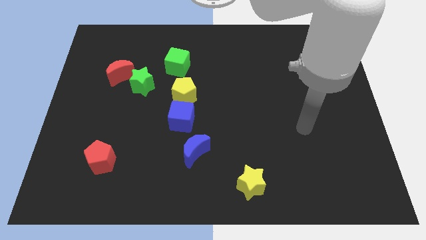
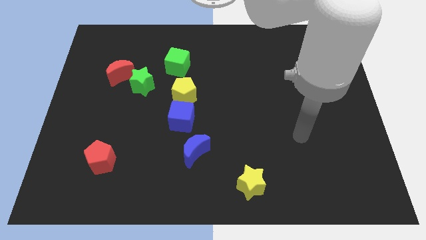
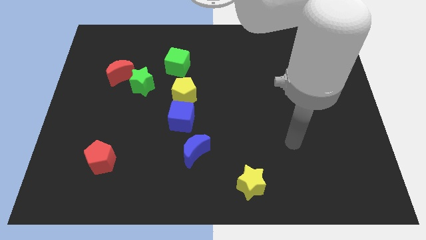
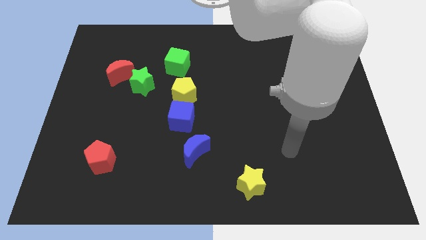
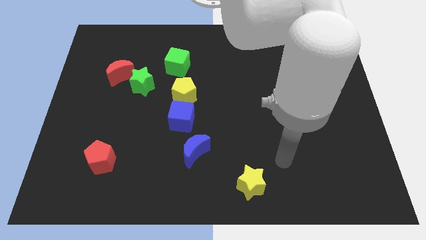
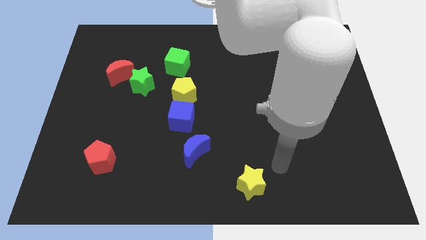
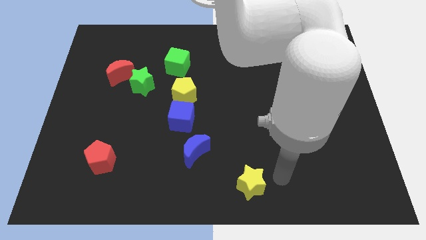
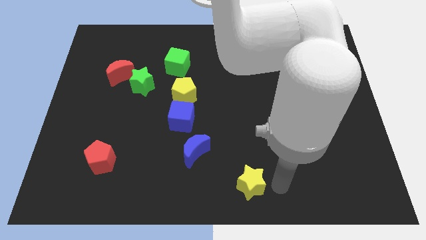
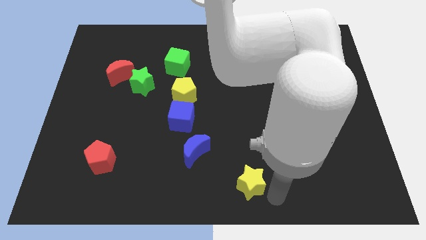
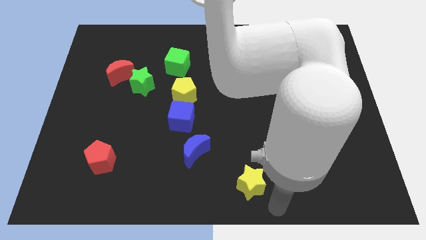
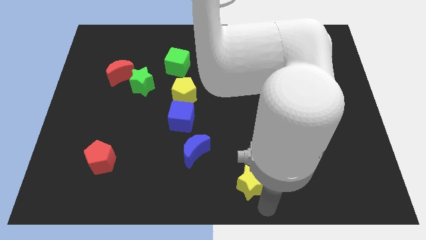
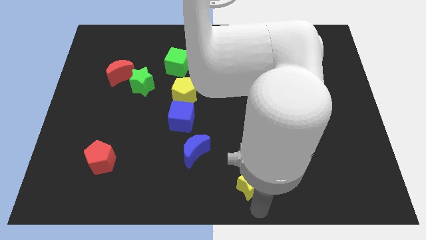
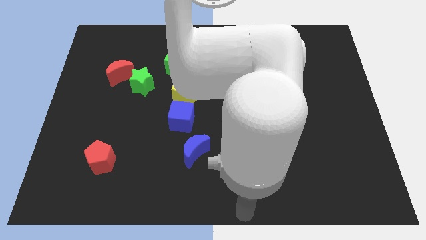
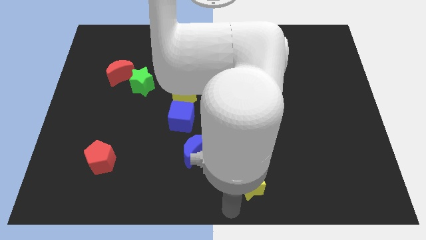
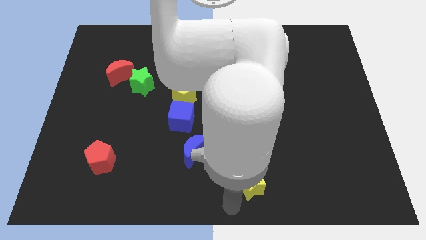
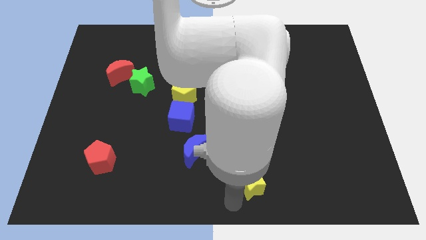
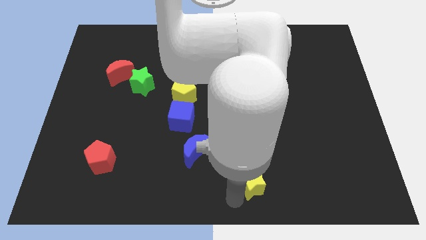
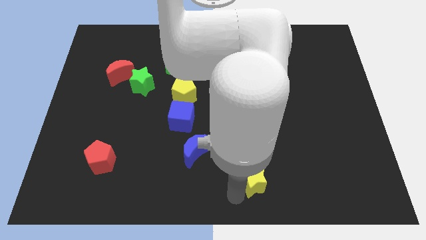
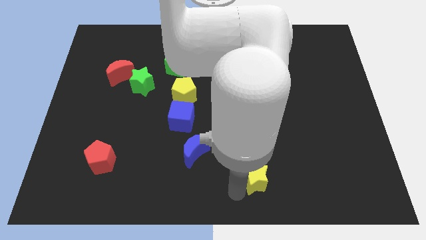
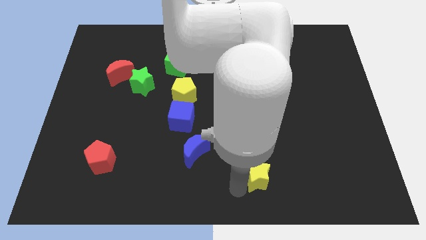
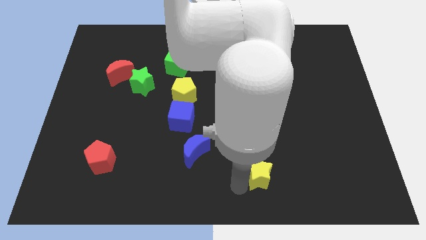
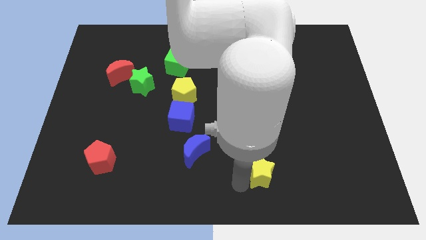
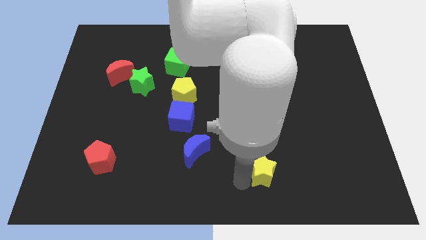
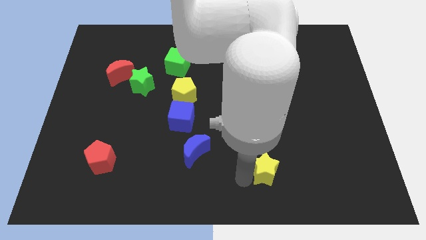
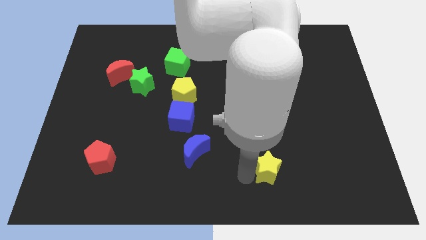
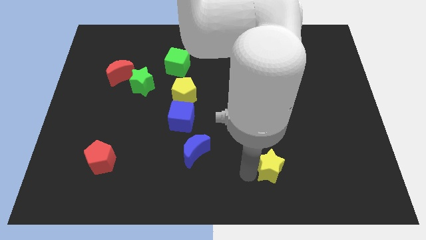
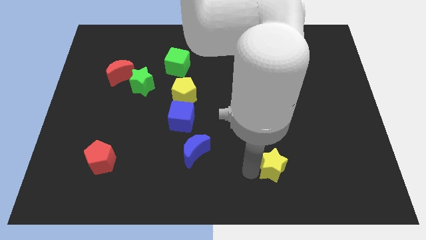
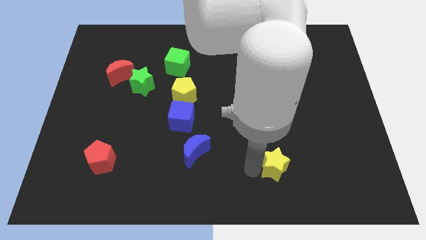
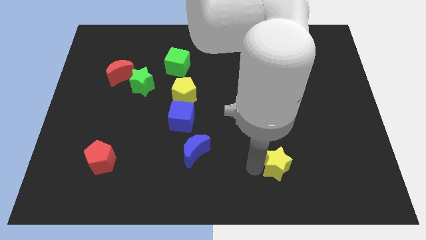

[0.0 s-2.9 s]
slightly push the yellow star diagonally up and right

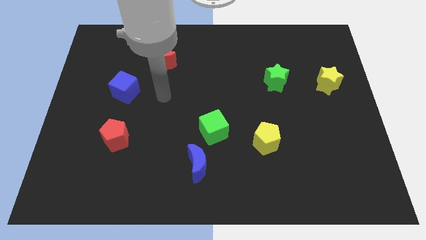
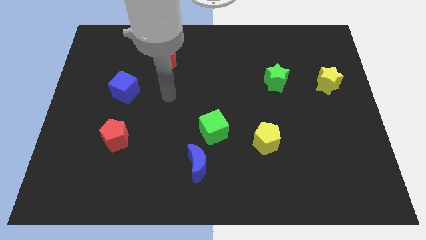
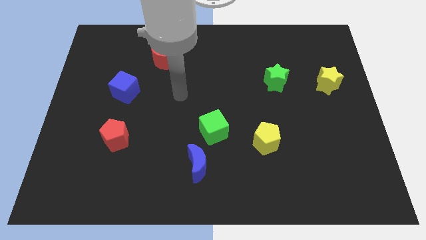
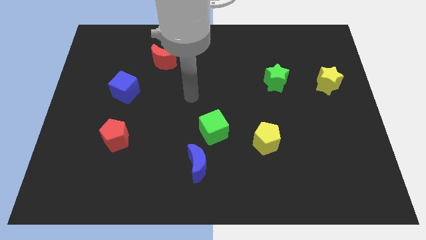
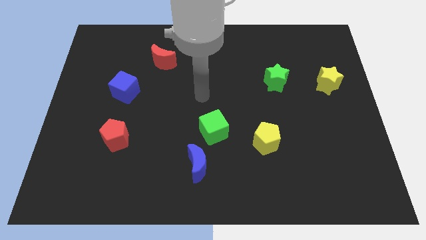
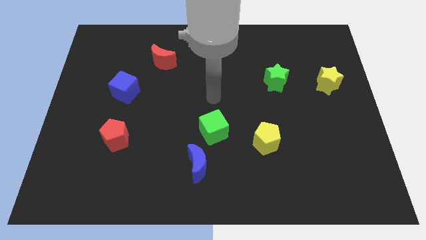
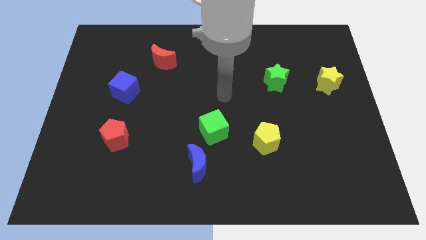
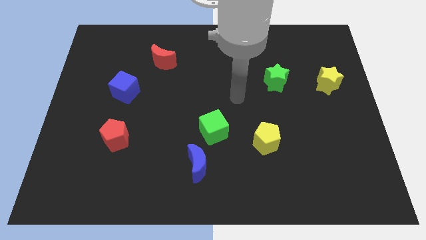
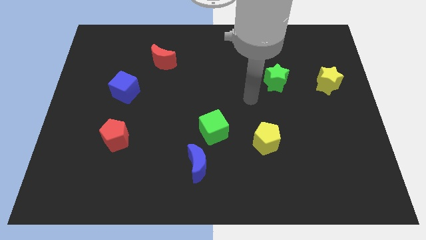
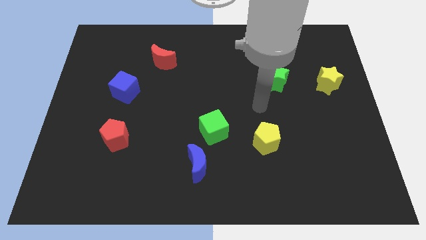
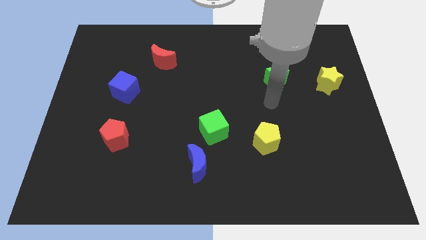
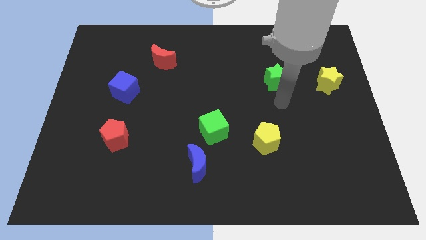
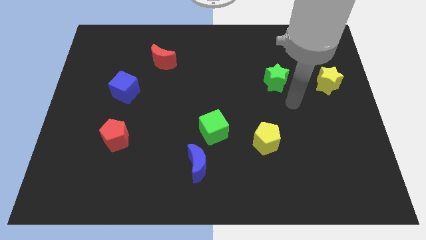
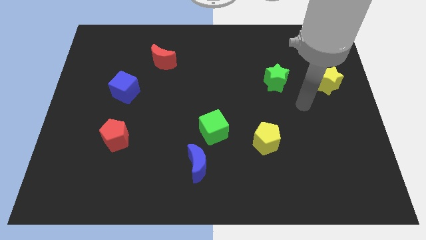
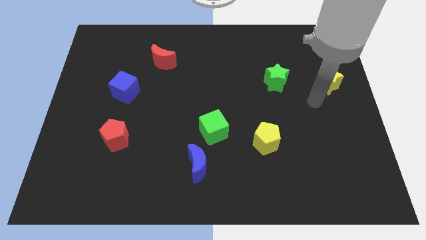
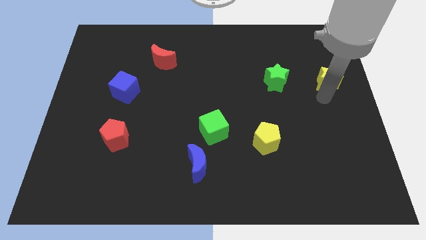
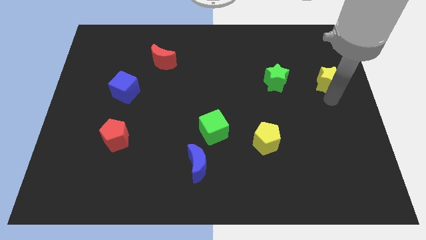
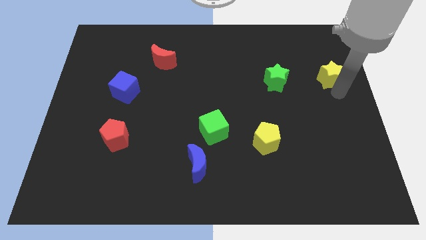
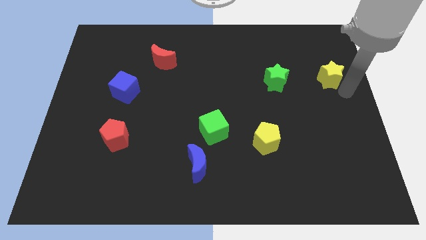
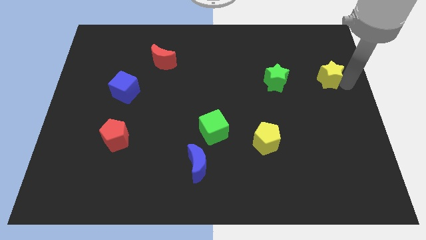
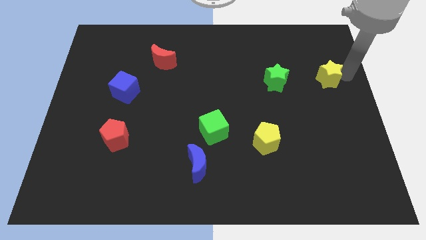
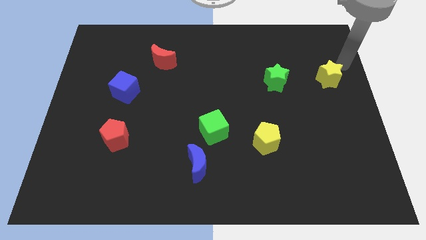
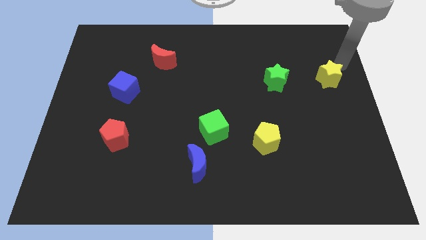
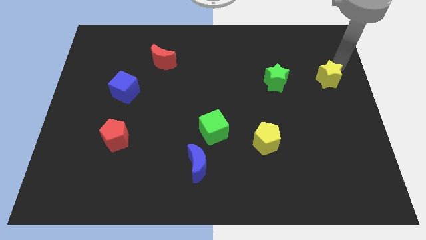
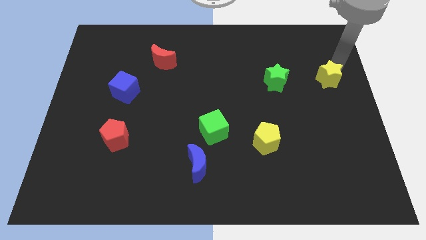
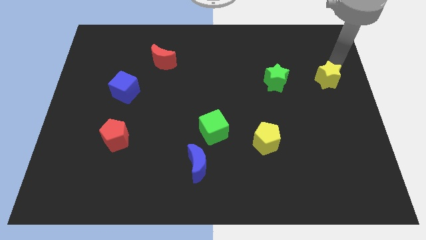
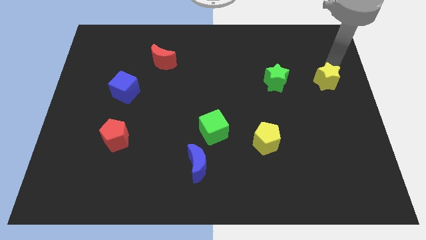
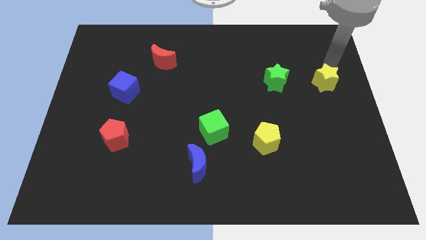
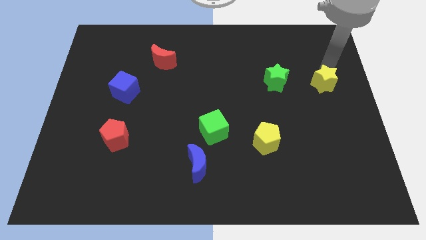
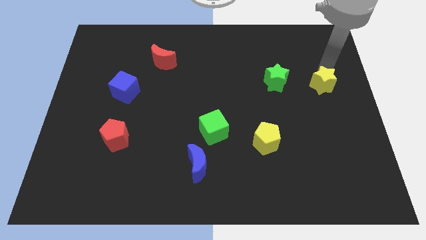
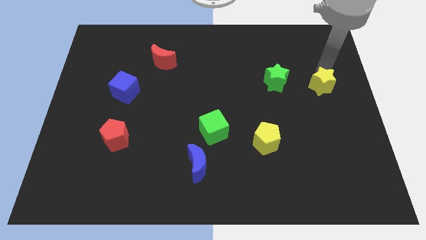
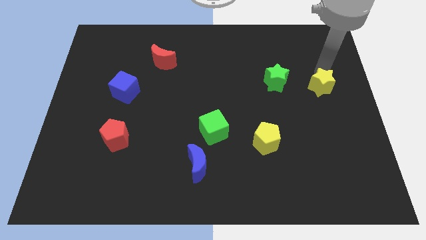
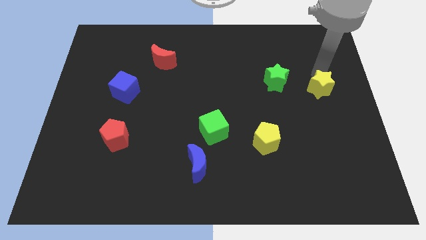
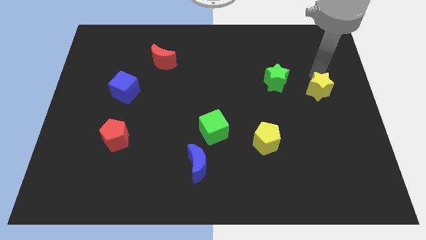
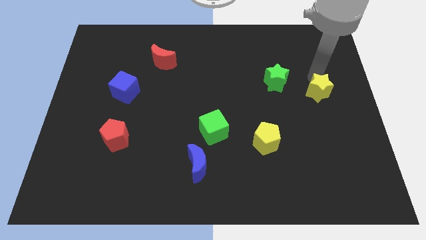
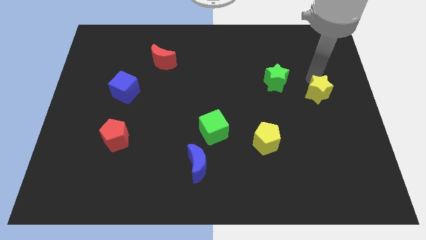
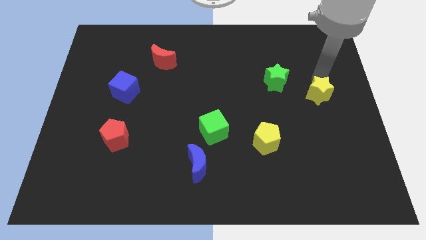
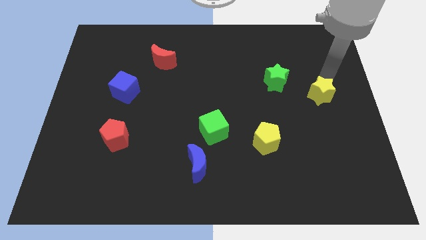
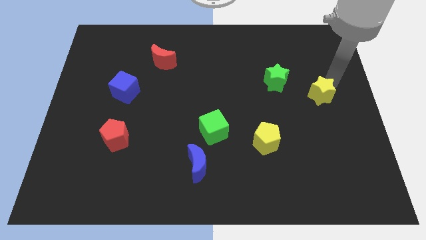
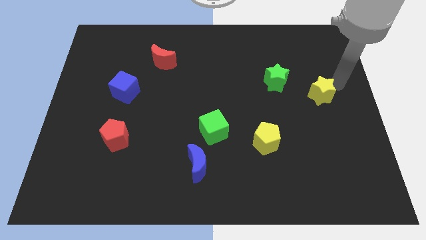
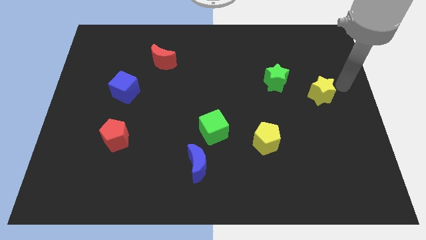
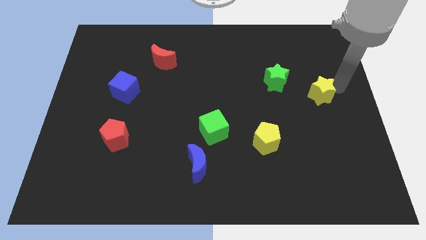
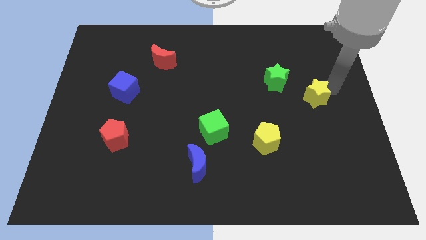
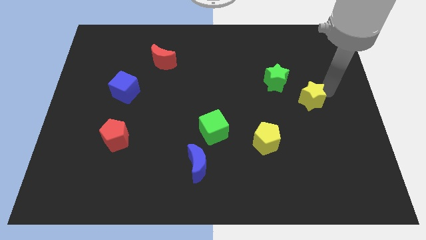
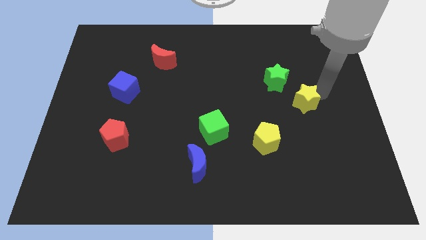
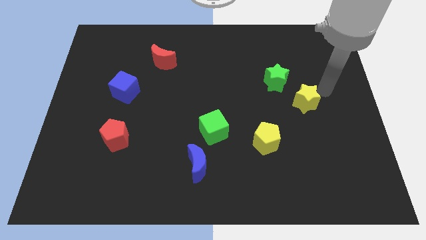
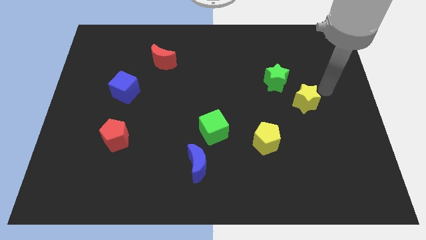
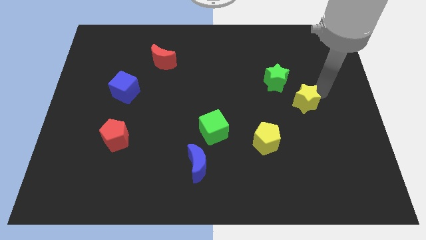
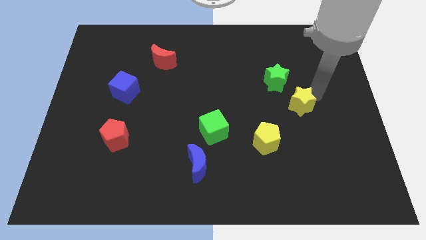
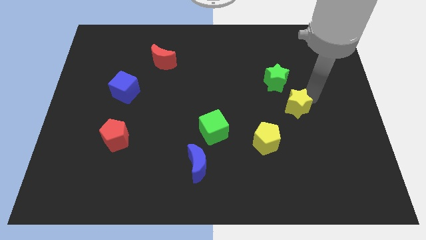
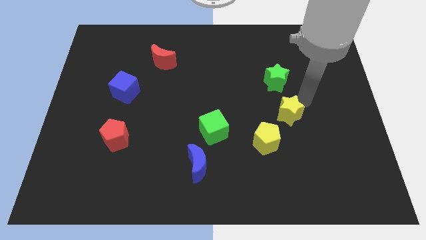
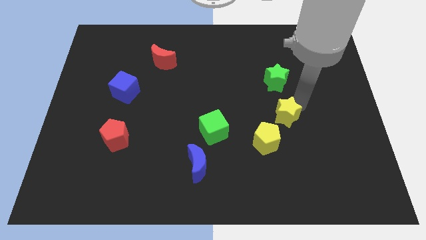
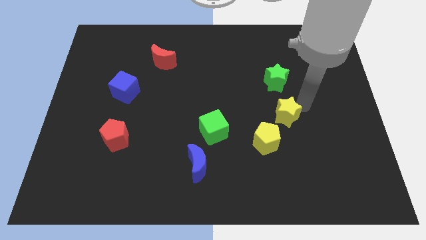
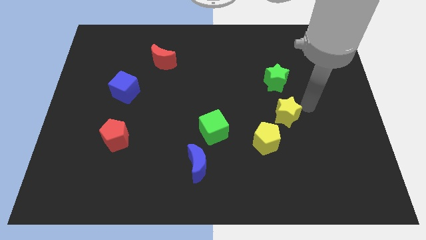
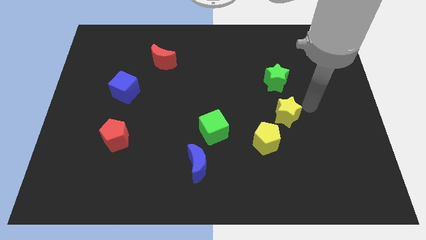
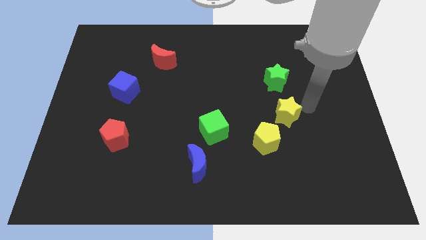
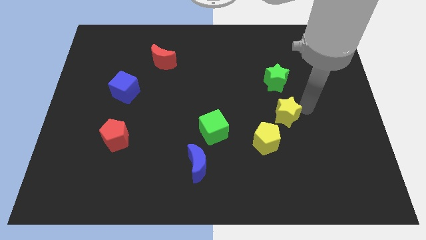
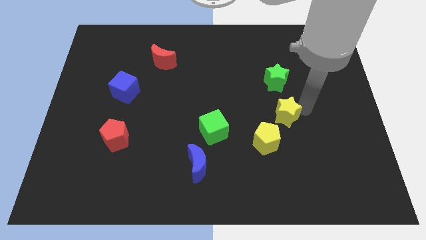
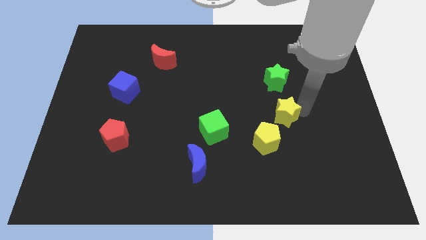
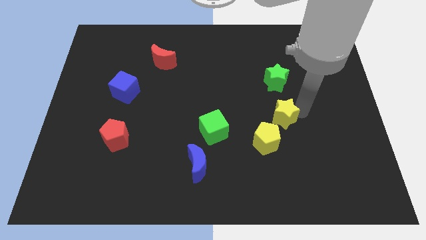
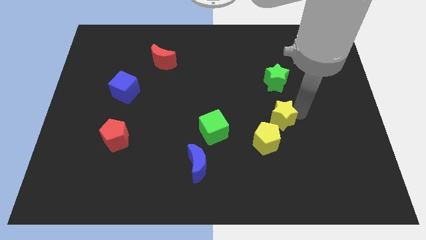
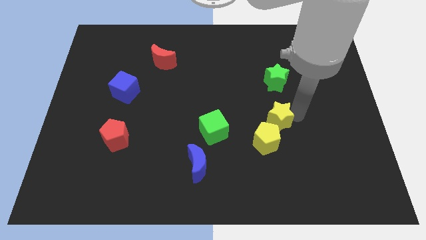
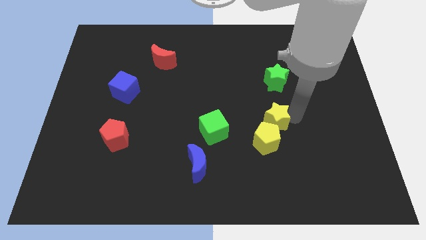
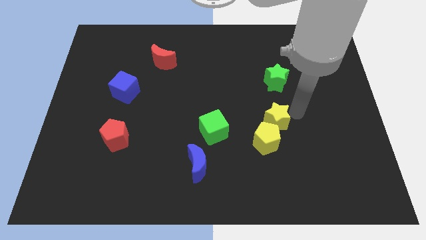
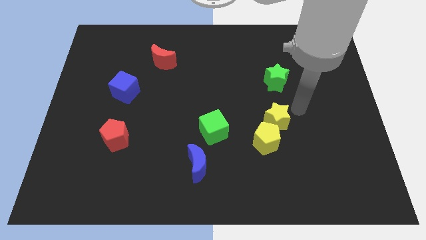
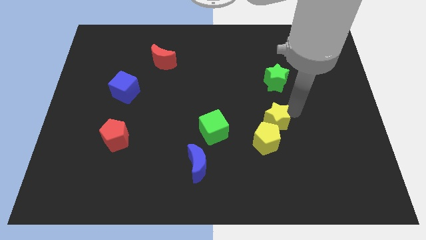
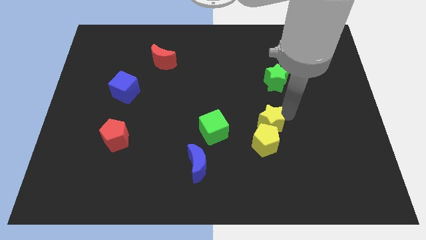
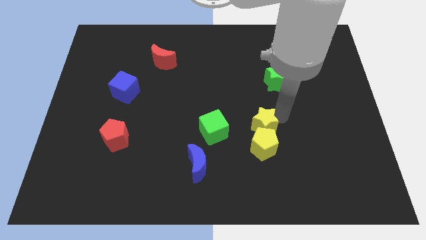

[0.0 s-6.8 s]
move the yellow star diagonally downwards and to the left
